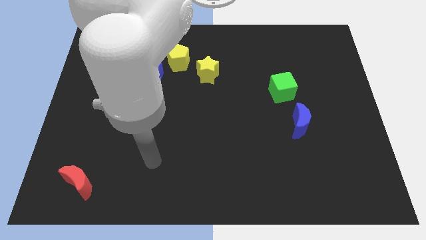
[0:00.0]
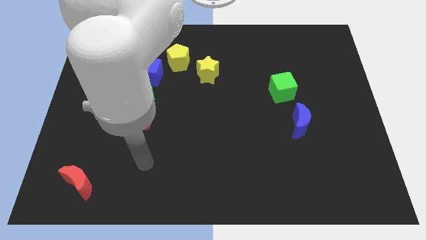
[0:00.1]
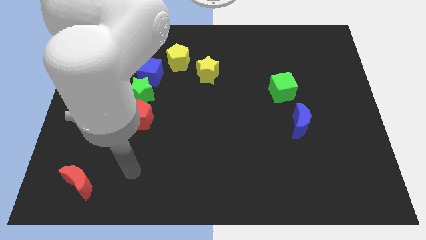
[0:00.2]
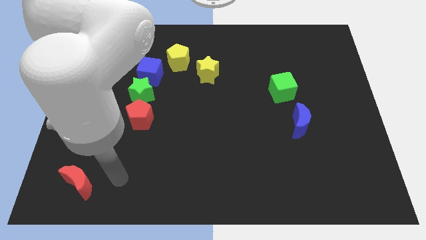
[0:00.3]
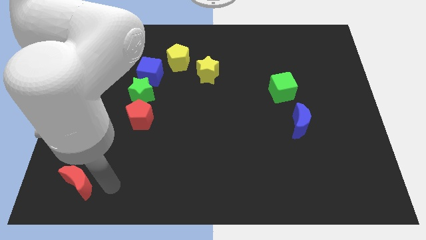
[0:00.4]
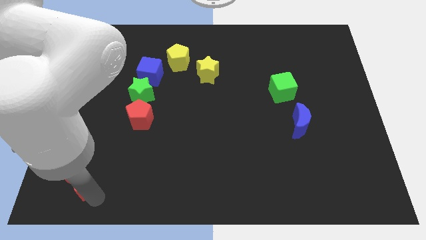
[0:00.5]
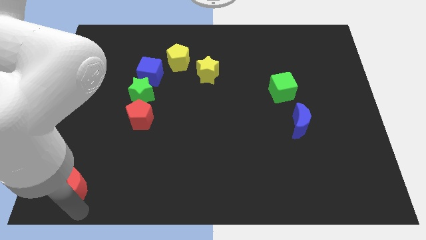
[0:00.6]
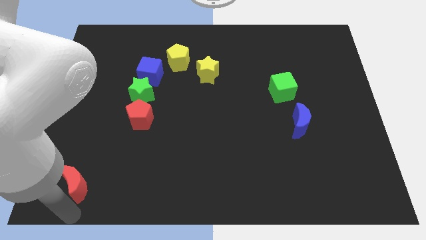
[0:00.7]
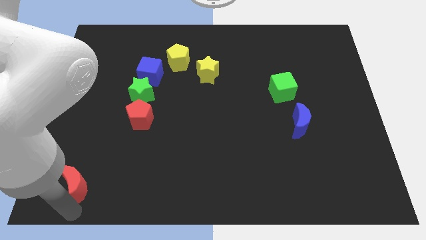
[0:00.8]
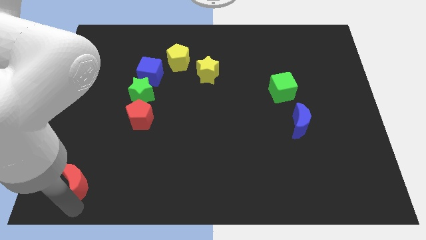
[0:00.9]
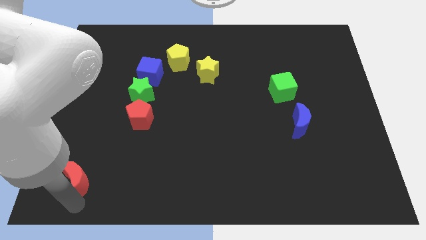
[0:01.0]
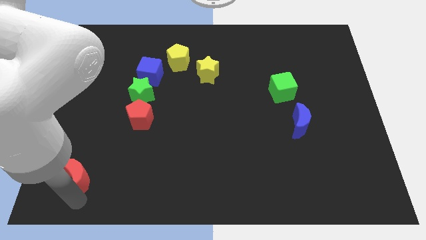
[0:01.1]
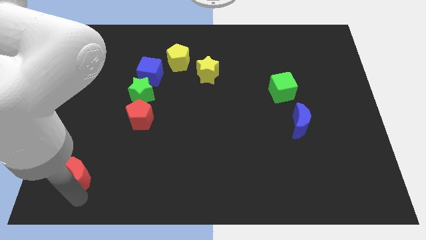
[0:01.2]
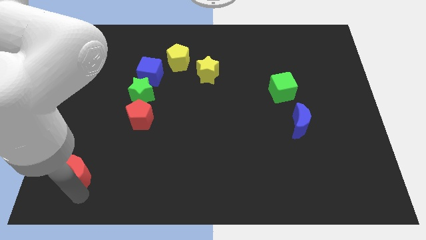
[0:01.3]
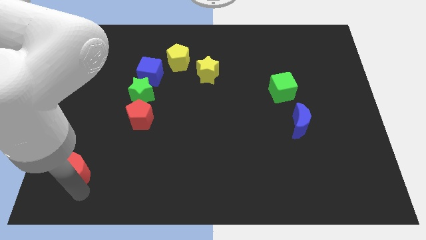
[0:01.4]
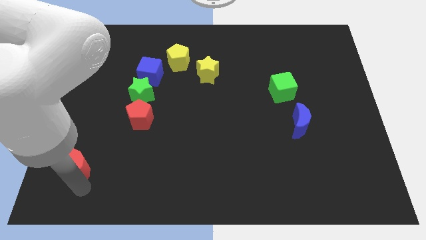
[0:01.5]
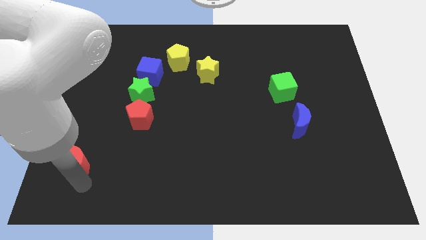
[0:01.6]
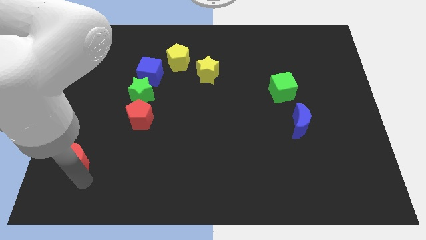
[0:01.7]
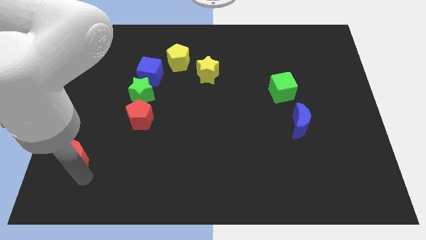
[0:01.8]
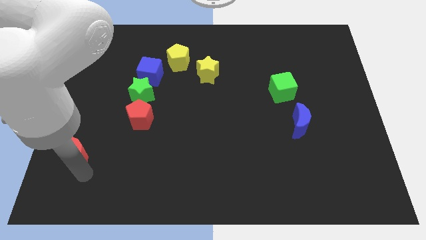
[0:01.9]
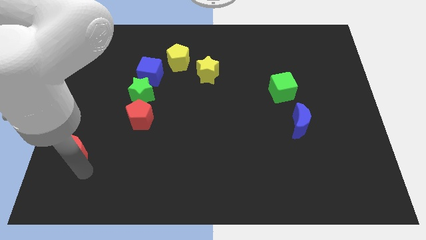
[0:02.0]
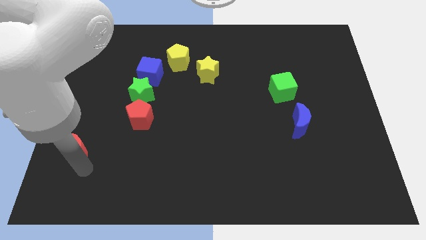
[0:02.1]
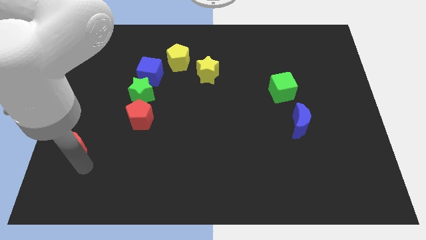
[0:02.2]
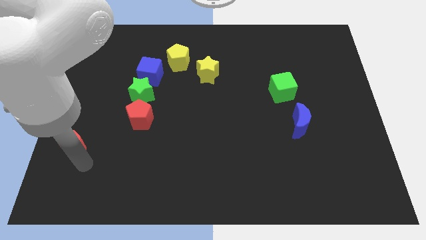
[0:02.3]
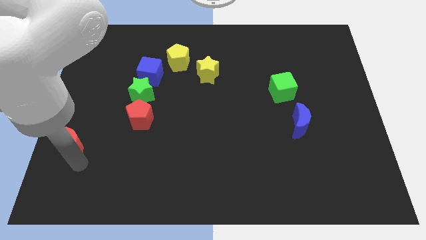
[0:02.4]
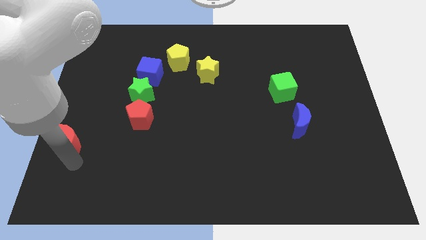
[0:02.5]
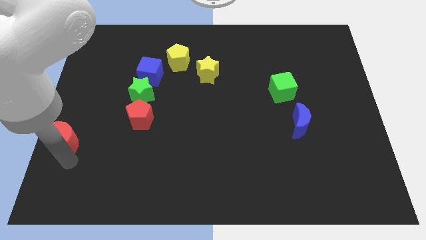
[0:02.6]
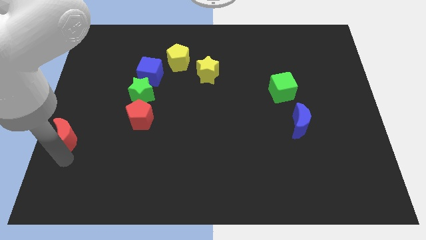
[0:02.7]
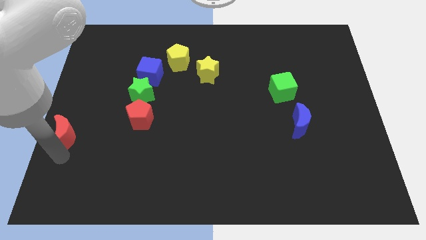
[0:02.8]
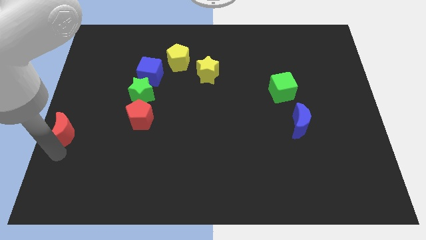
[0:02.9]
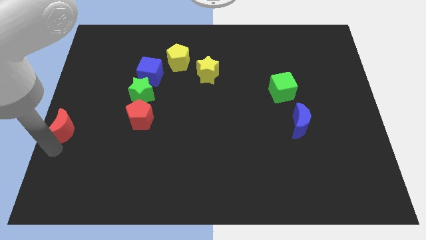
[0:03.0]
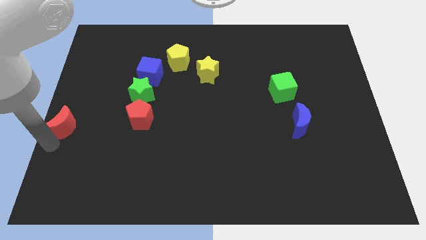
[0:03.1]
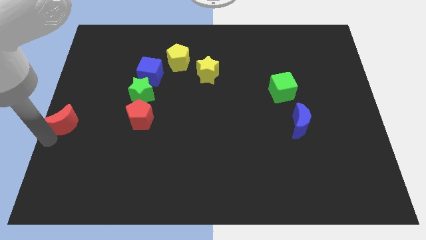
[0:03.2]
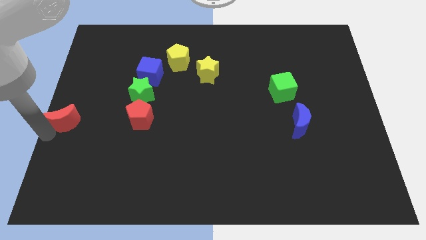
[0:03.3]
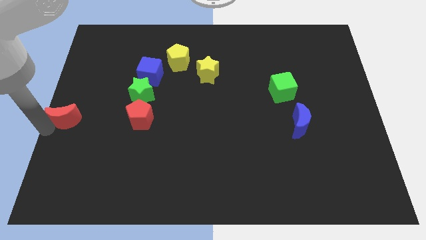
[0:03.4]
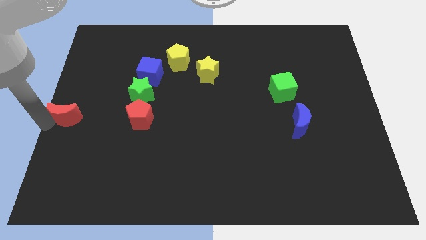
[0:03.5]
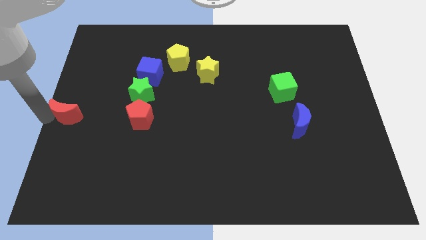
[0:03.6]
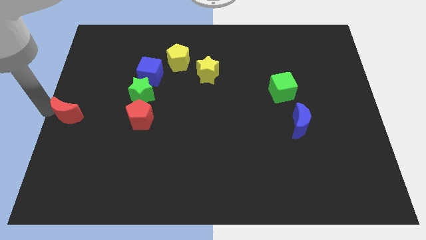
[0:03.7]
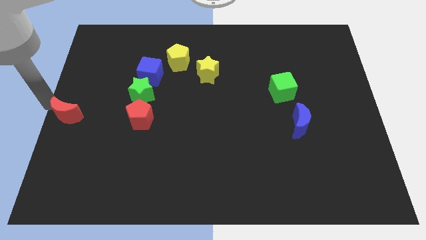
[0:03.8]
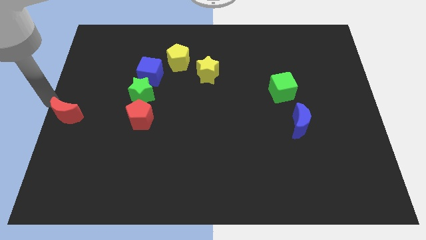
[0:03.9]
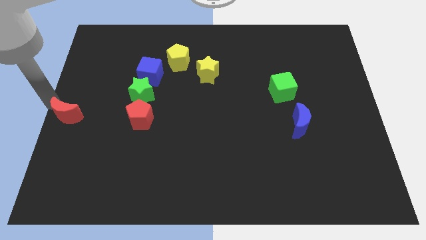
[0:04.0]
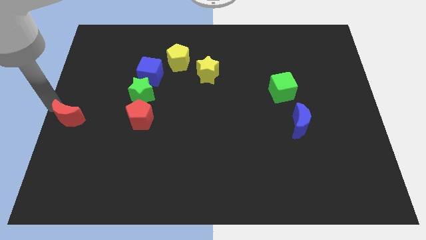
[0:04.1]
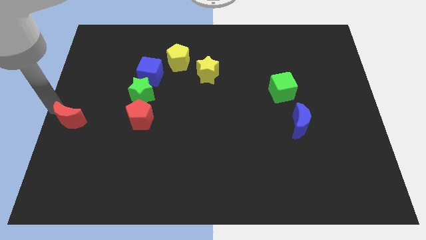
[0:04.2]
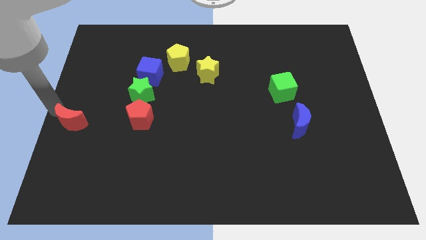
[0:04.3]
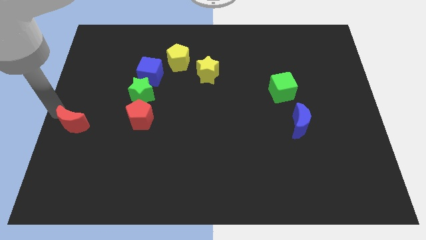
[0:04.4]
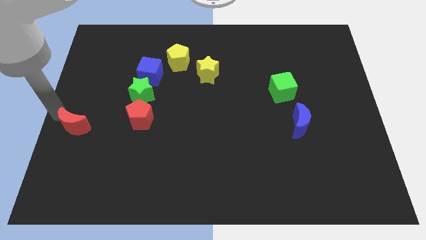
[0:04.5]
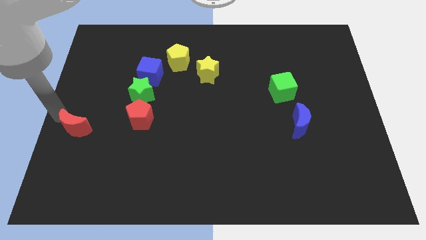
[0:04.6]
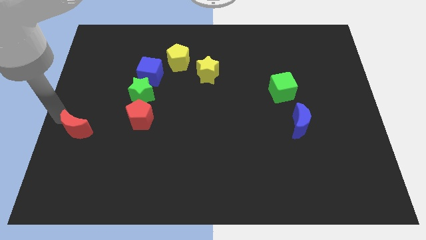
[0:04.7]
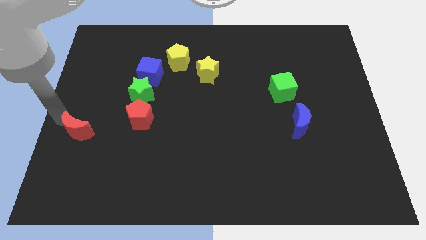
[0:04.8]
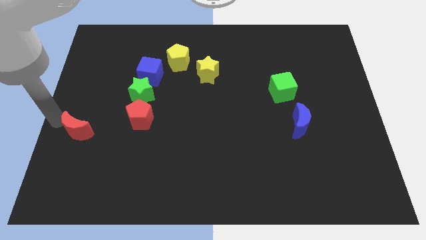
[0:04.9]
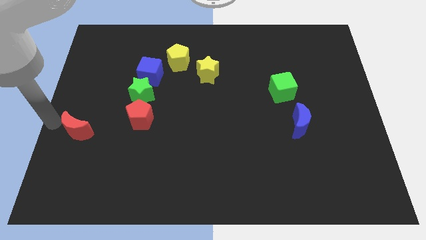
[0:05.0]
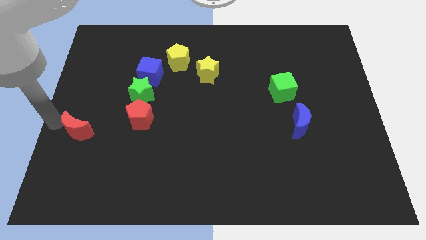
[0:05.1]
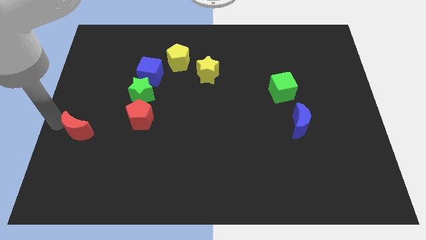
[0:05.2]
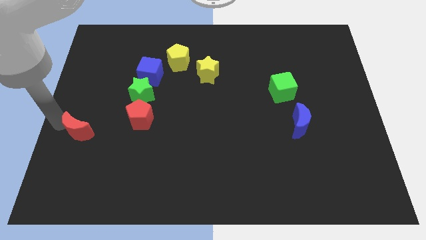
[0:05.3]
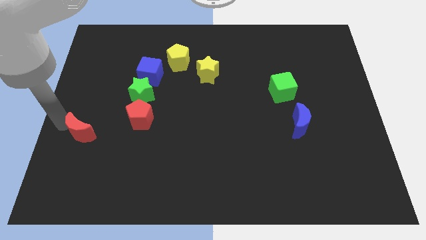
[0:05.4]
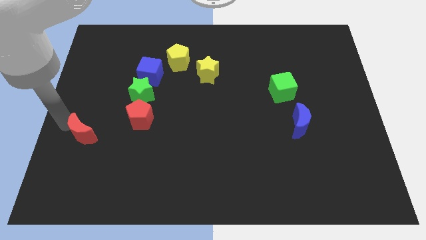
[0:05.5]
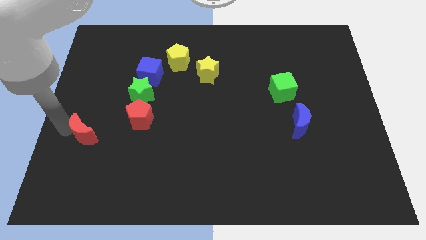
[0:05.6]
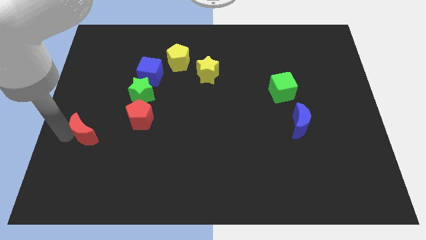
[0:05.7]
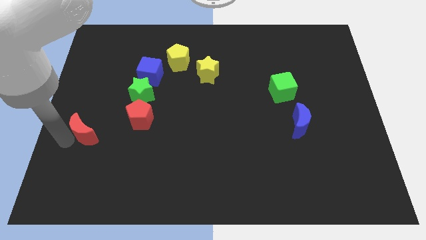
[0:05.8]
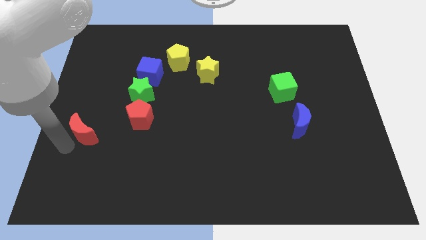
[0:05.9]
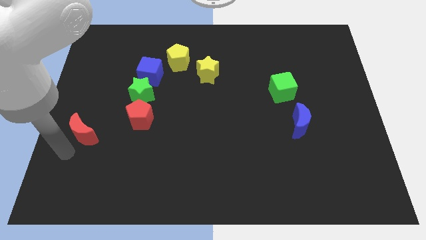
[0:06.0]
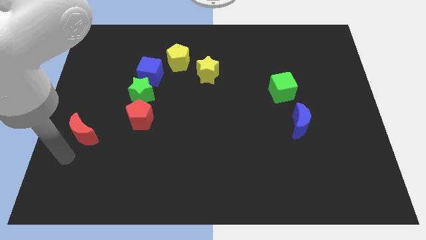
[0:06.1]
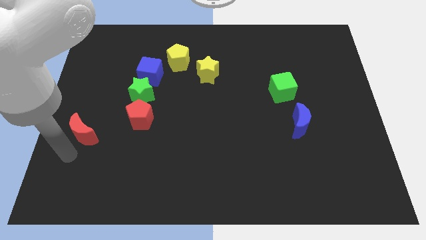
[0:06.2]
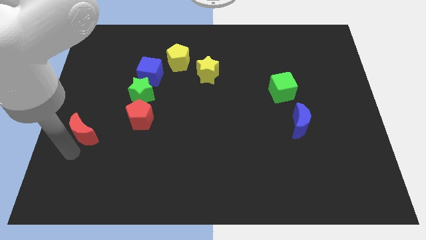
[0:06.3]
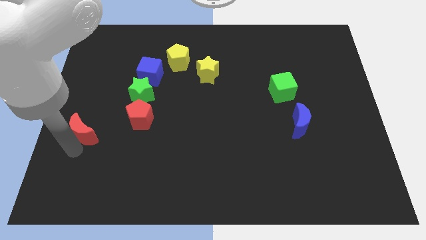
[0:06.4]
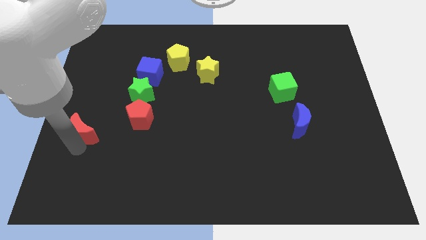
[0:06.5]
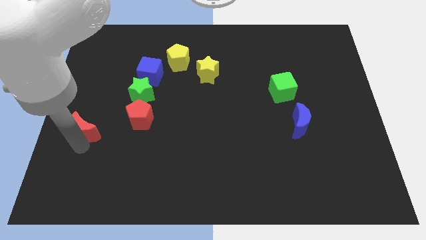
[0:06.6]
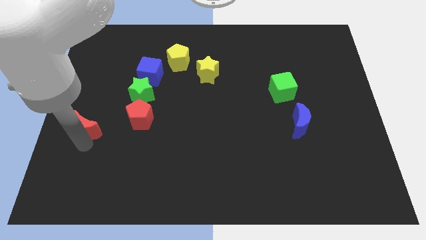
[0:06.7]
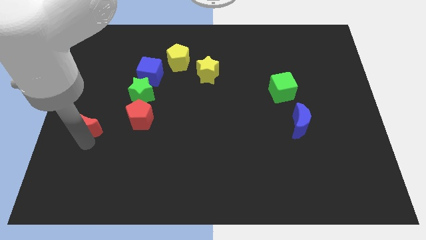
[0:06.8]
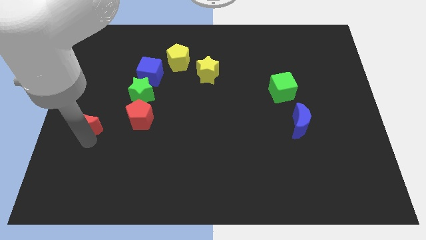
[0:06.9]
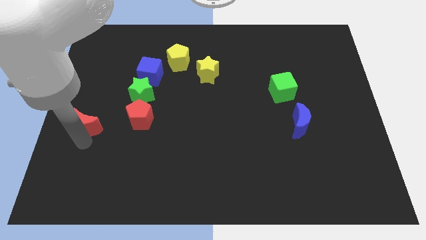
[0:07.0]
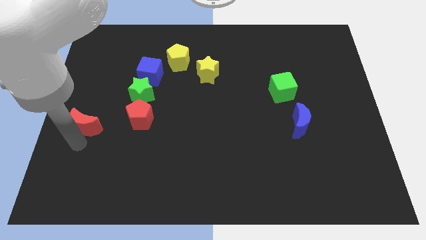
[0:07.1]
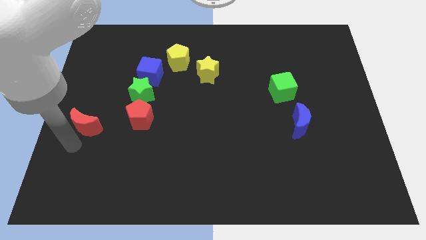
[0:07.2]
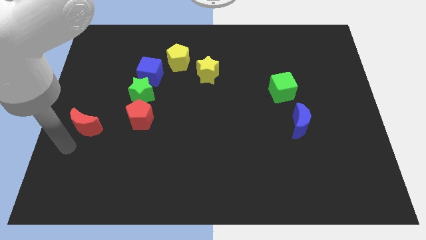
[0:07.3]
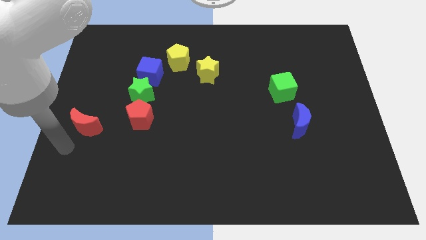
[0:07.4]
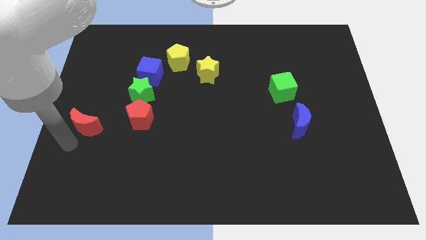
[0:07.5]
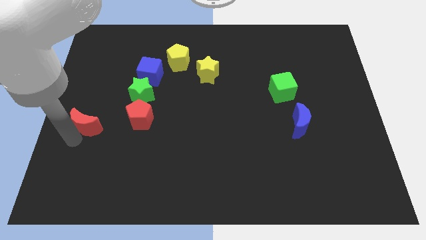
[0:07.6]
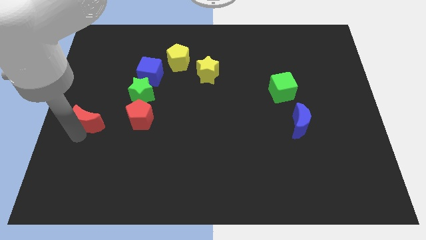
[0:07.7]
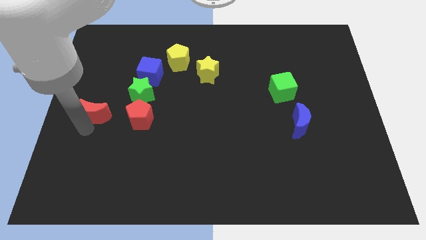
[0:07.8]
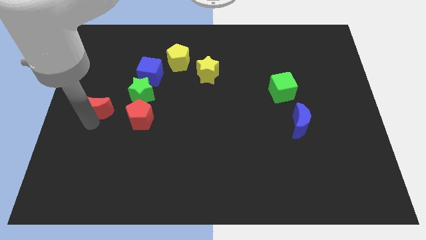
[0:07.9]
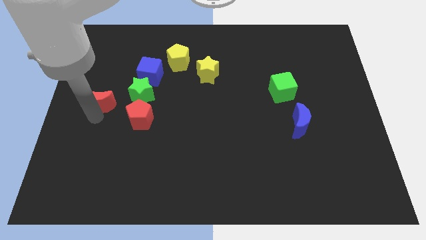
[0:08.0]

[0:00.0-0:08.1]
push the red moon upwards

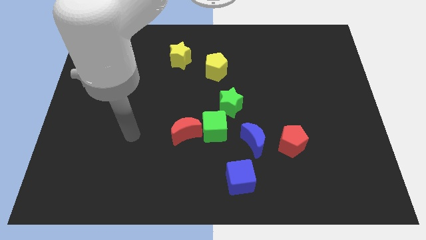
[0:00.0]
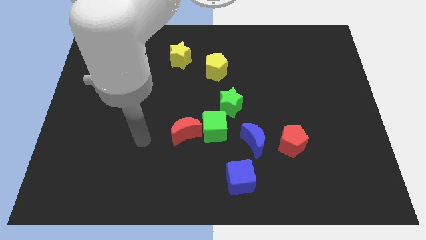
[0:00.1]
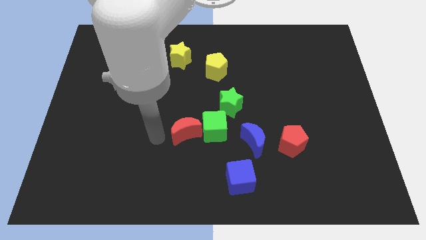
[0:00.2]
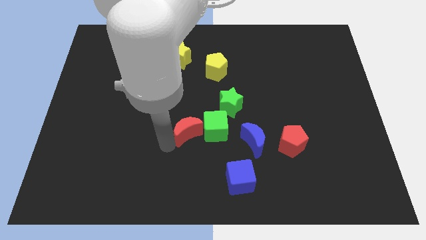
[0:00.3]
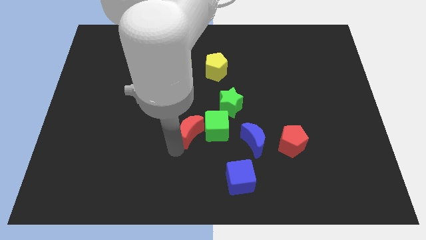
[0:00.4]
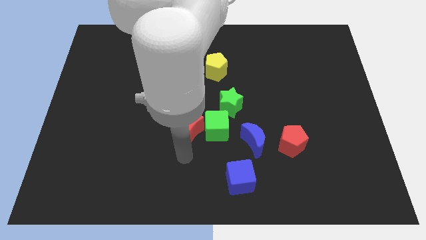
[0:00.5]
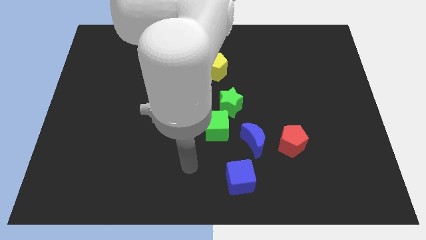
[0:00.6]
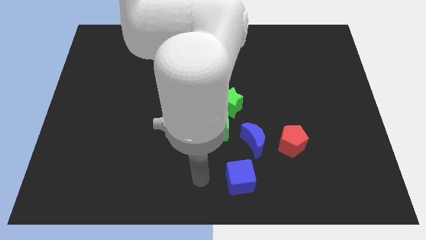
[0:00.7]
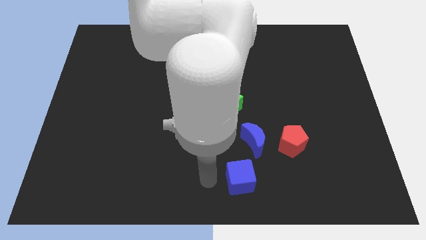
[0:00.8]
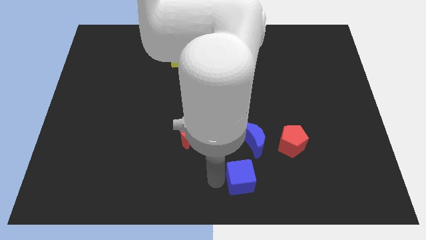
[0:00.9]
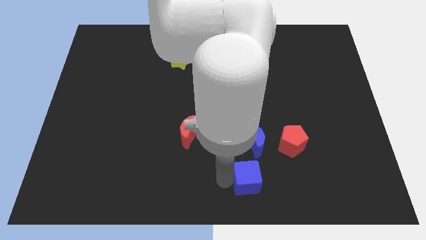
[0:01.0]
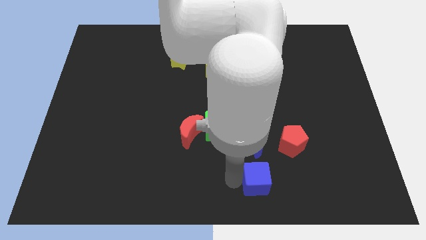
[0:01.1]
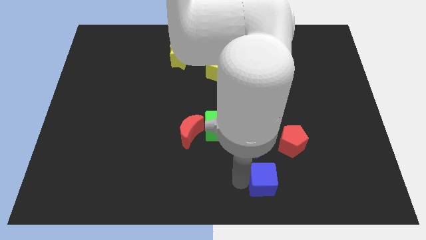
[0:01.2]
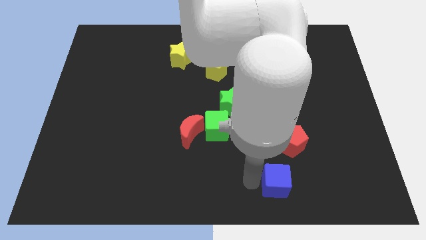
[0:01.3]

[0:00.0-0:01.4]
slightly slide the blue cube right
